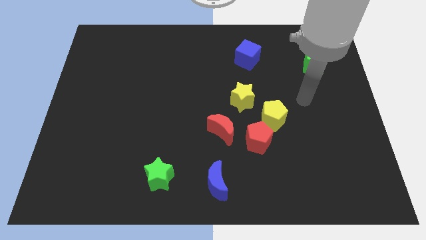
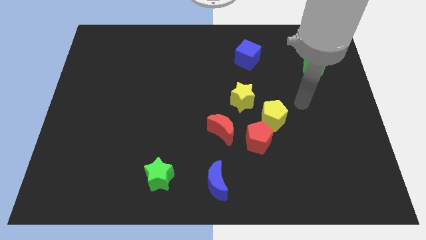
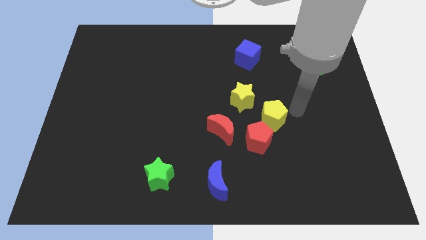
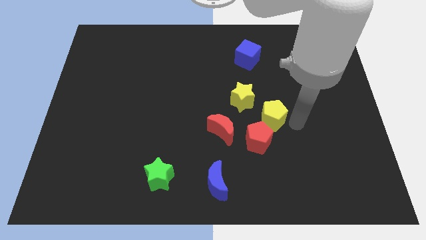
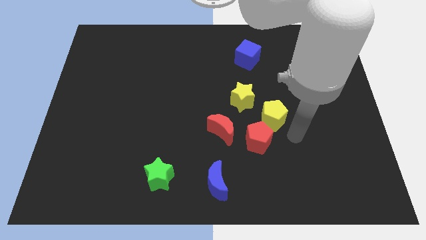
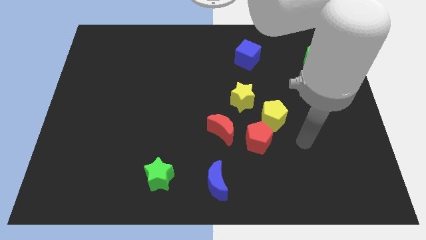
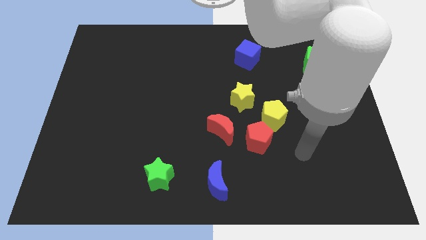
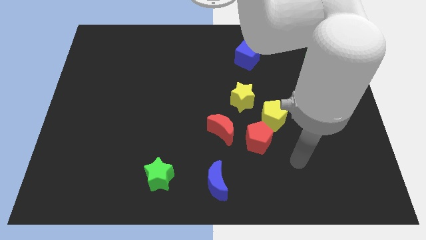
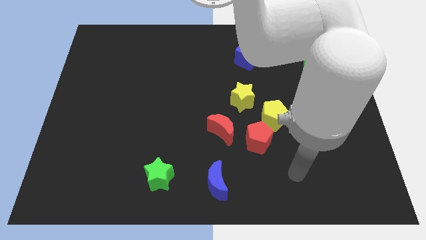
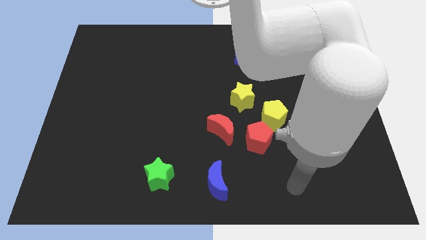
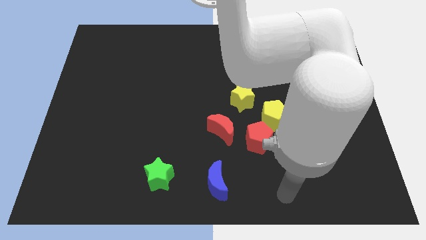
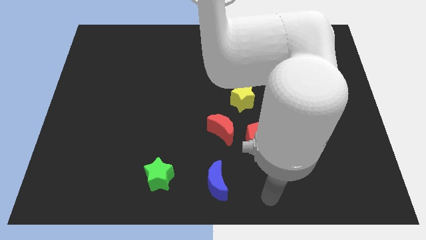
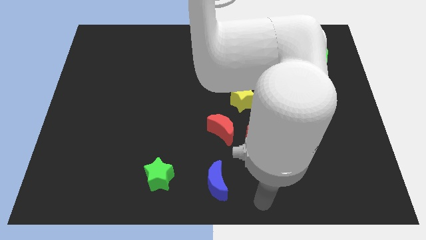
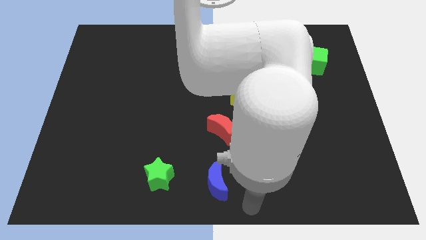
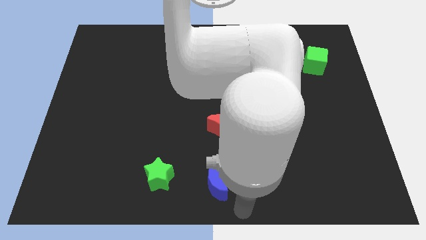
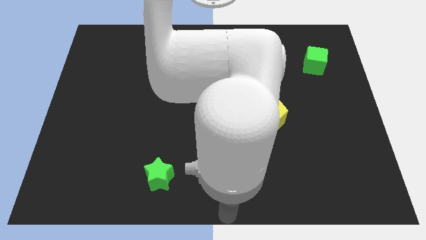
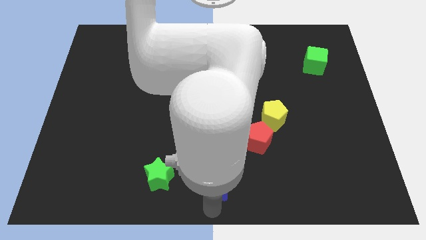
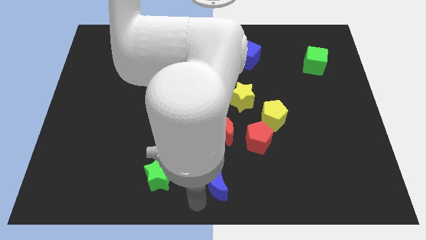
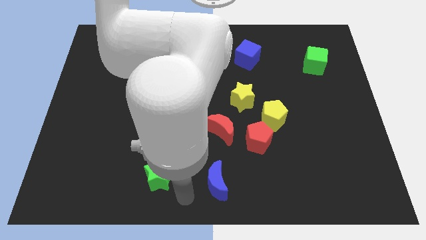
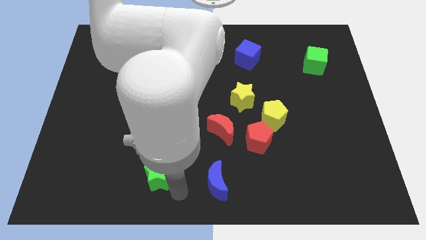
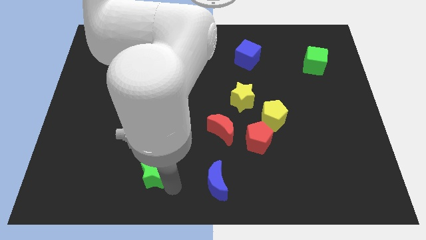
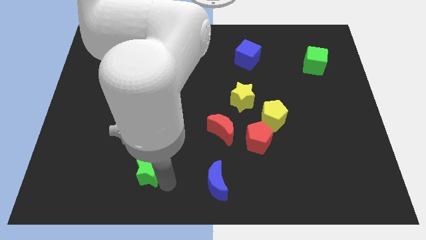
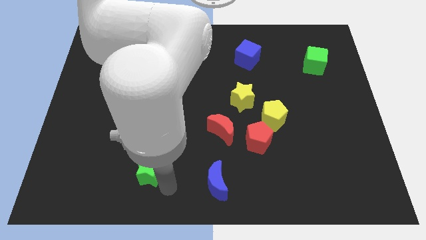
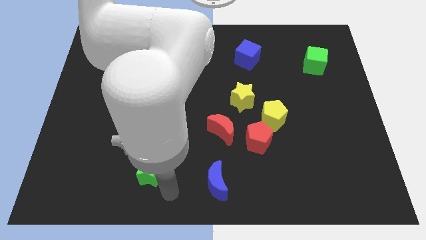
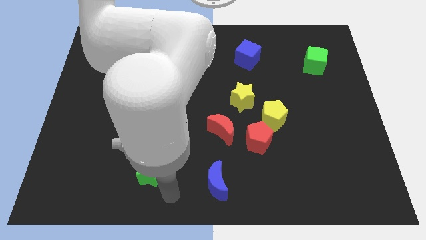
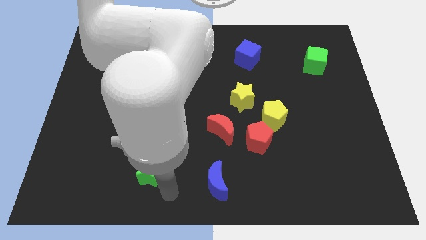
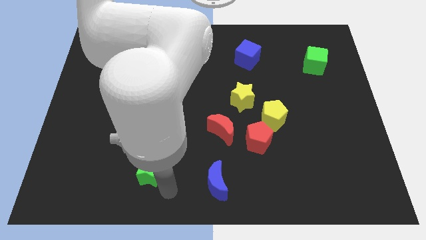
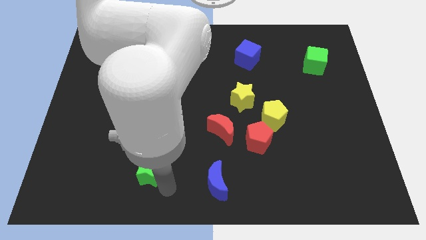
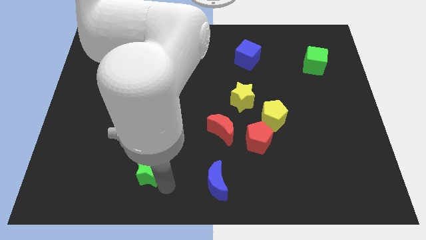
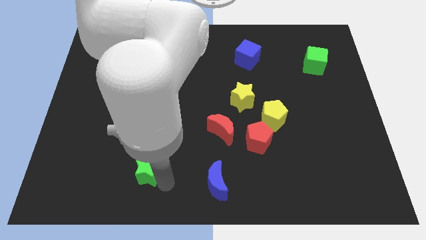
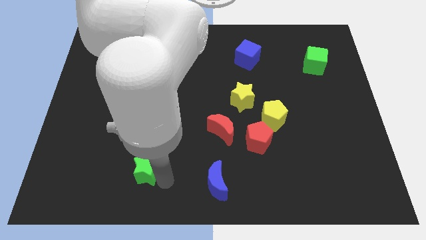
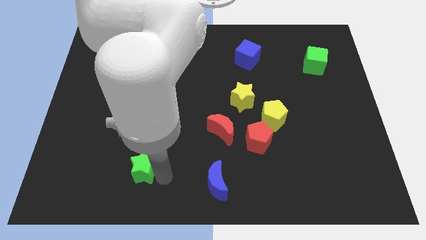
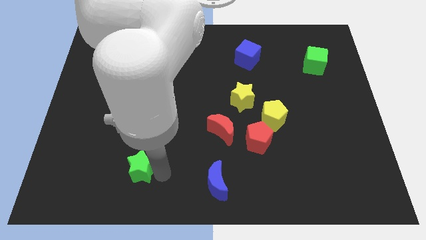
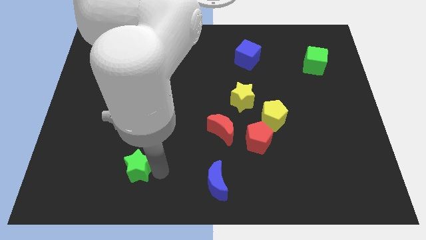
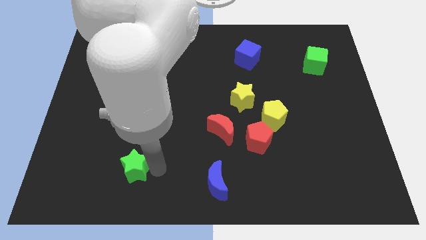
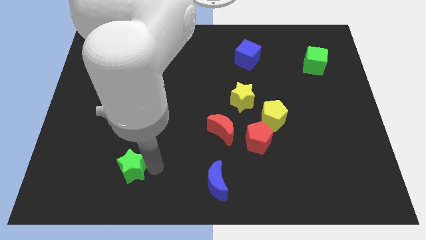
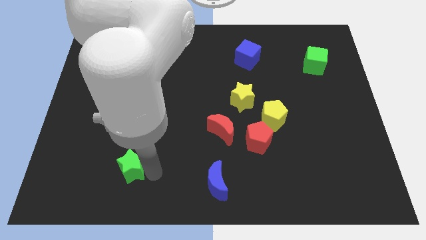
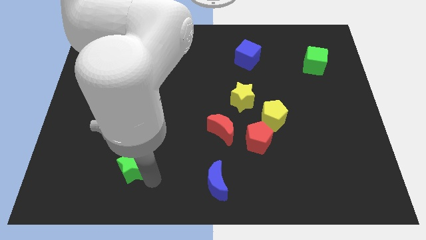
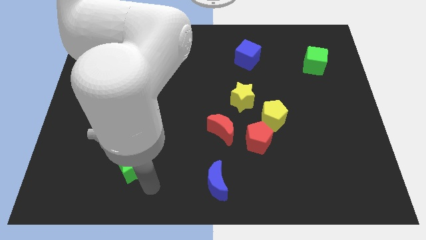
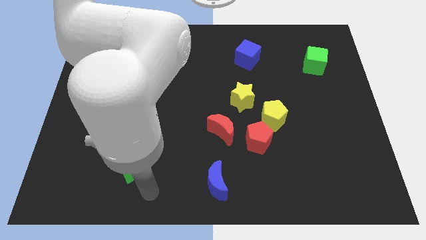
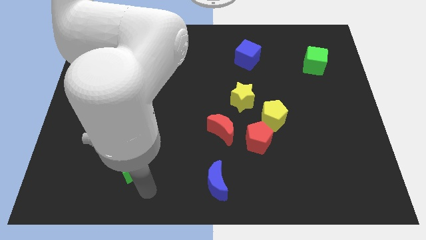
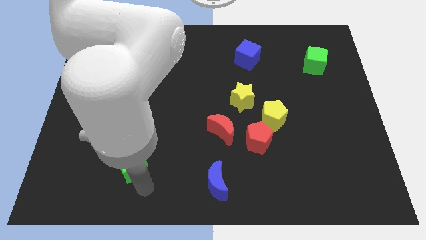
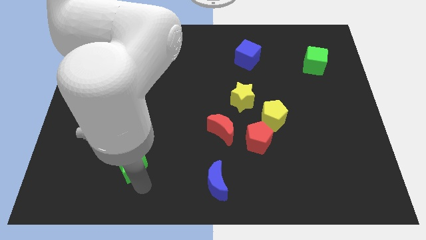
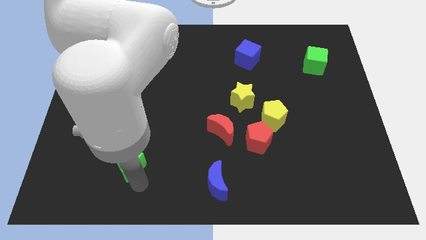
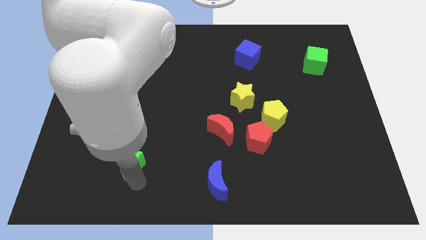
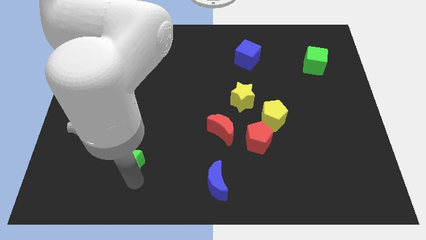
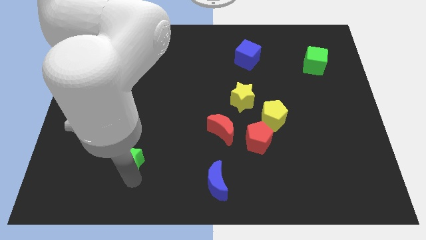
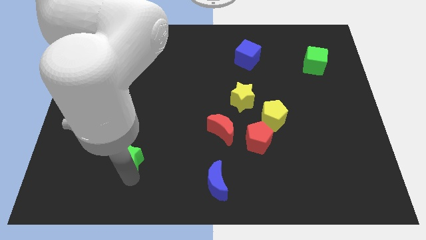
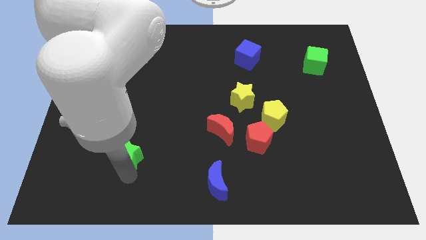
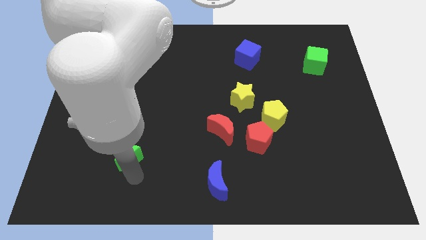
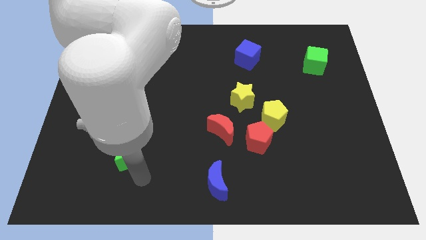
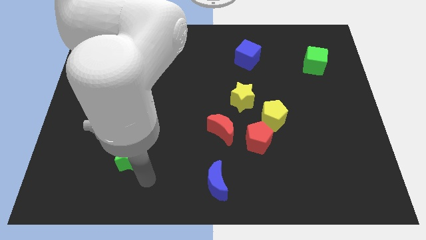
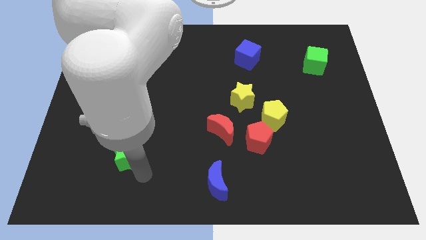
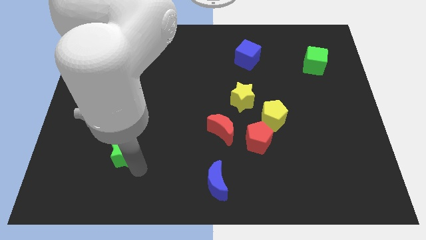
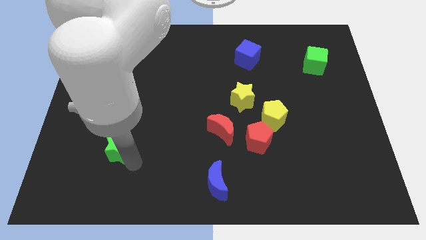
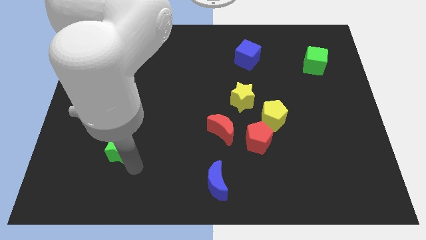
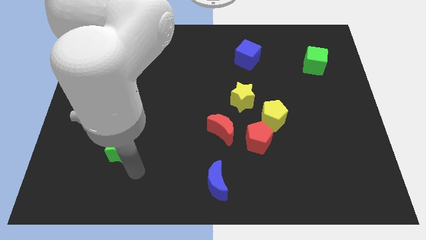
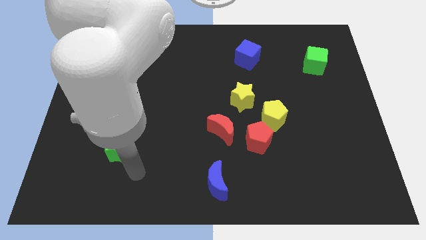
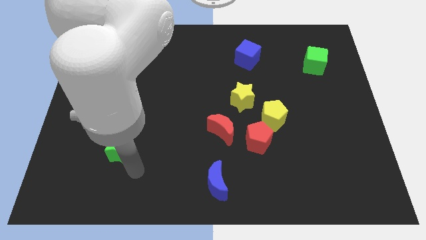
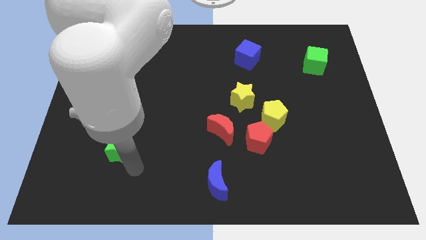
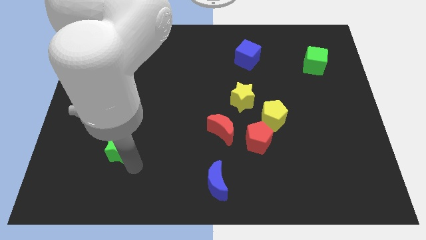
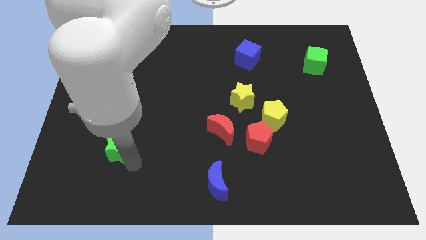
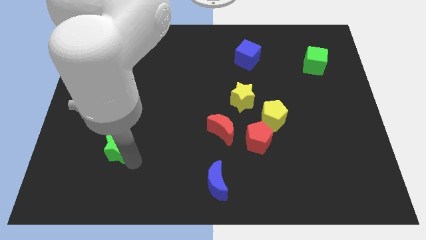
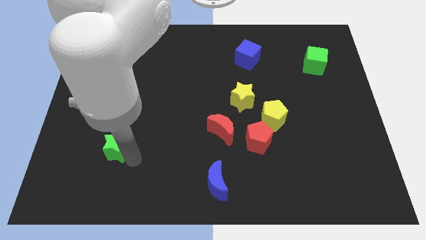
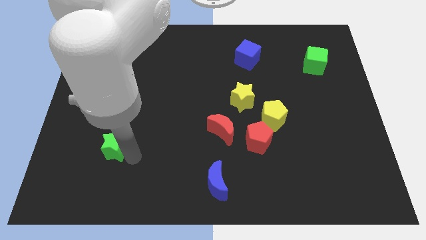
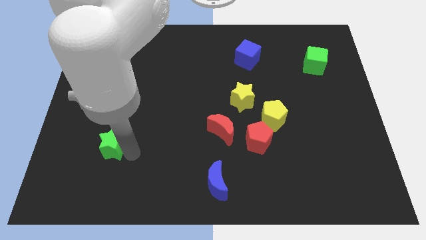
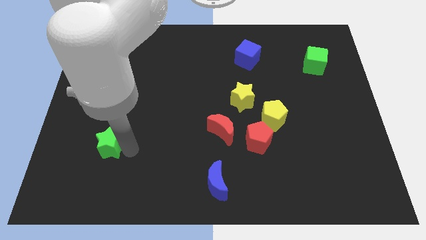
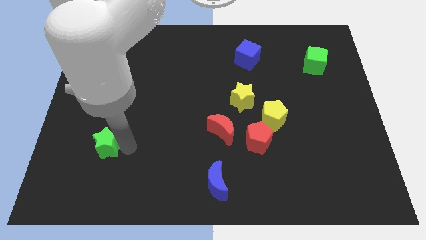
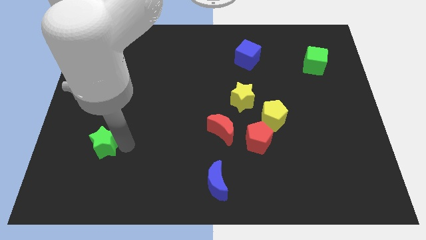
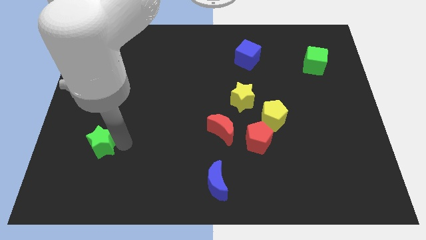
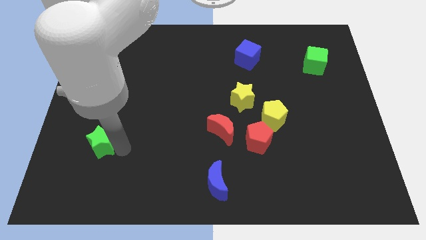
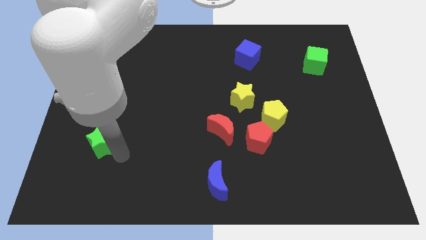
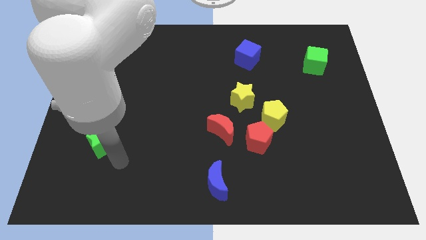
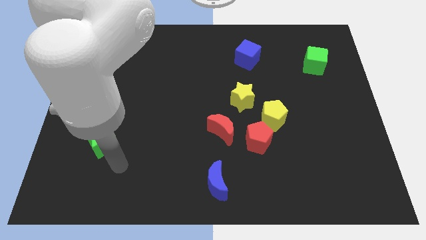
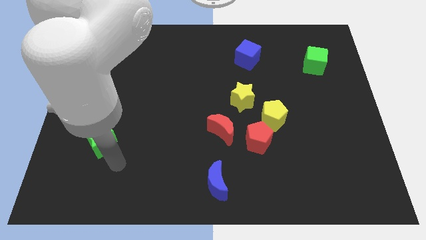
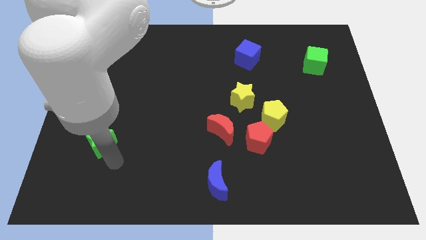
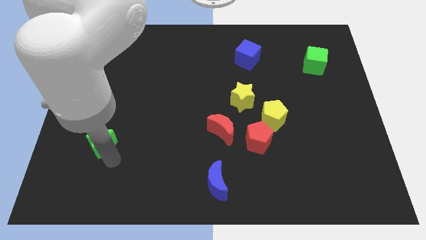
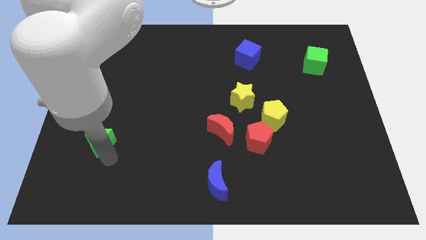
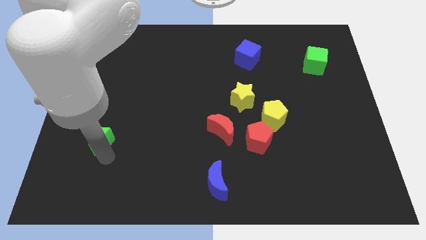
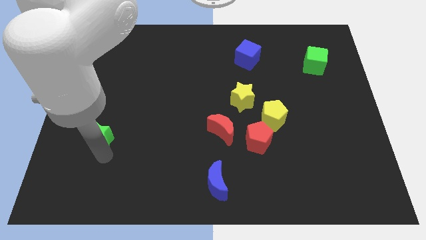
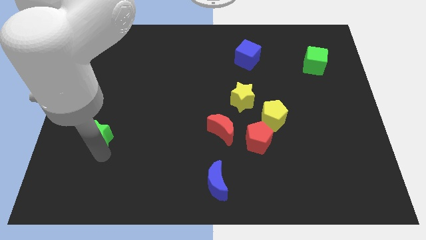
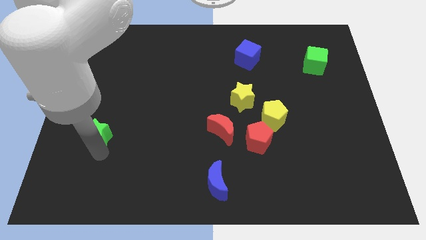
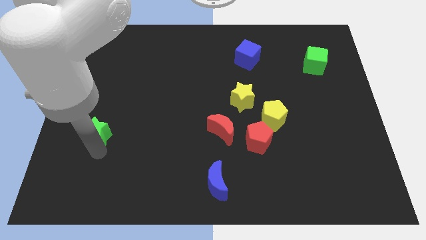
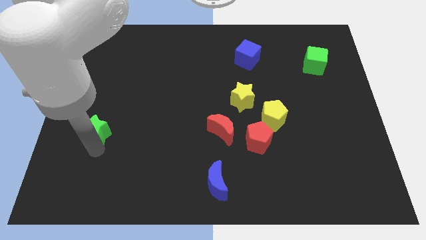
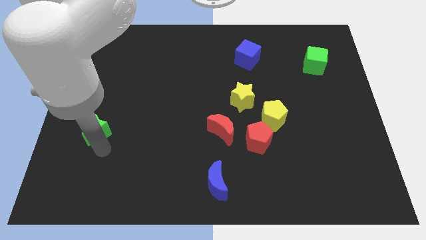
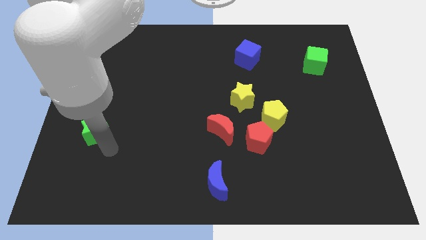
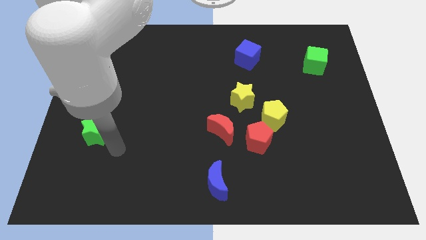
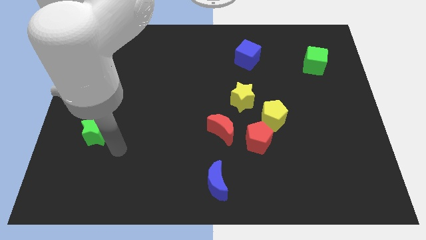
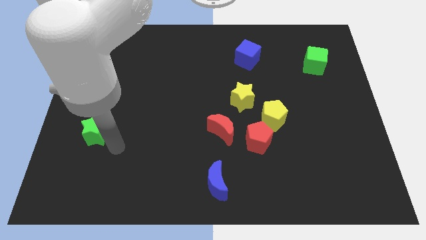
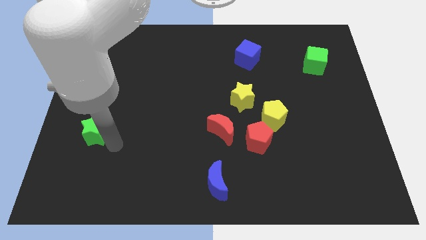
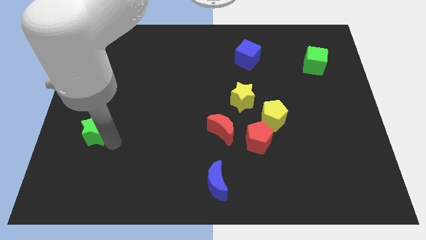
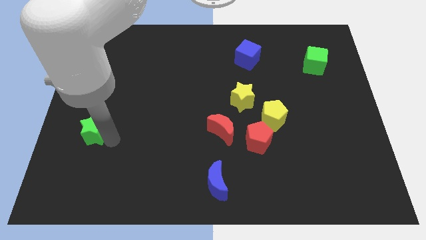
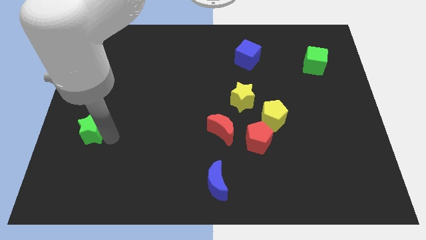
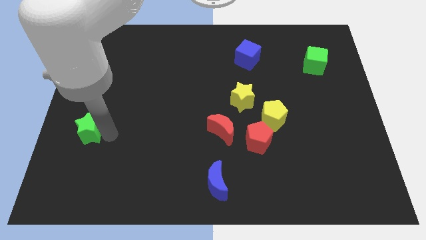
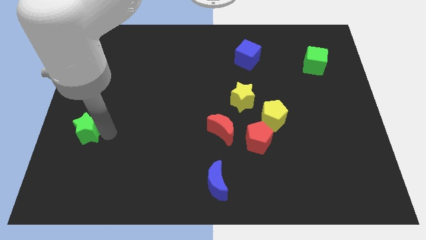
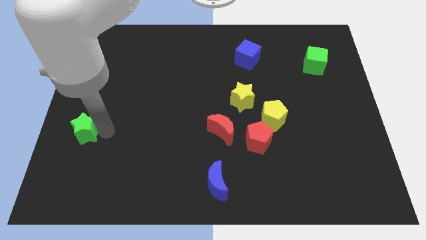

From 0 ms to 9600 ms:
put the green star to the left side
